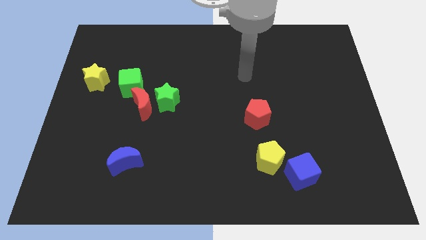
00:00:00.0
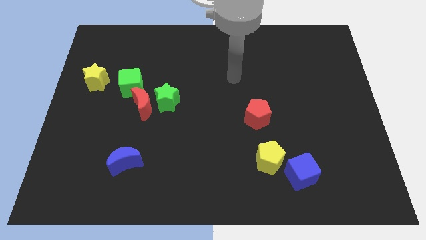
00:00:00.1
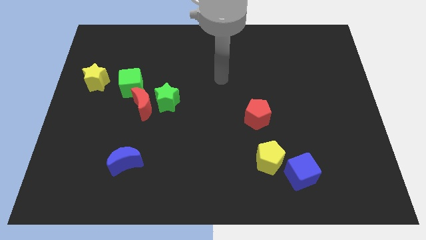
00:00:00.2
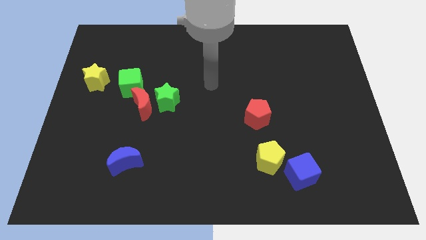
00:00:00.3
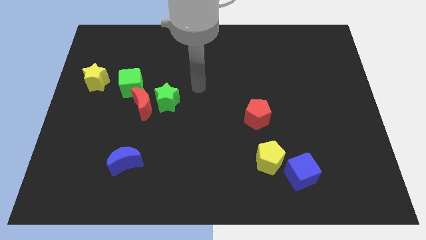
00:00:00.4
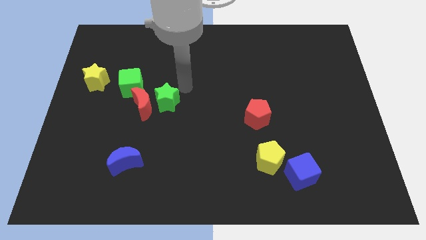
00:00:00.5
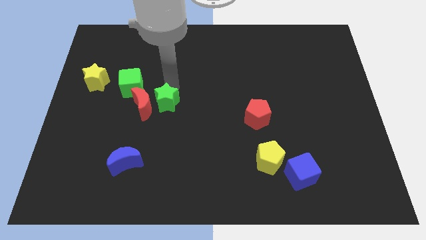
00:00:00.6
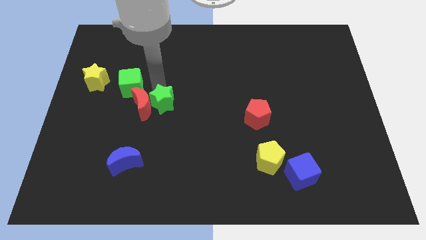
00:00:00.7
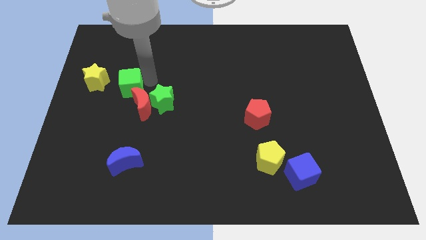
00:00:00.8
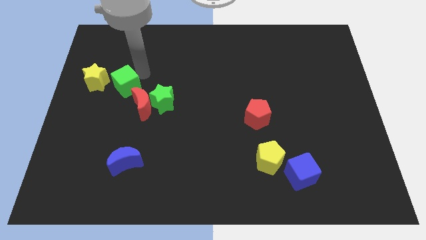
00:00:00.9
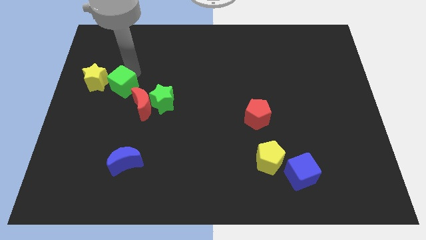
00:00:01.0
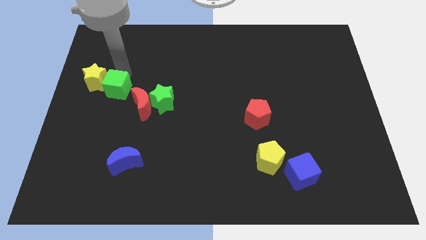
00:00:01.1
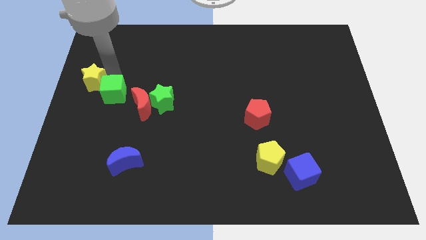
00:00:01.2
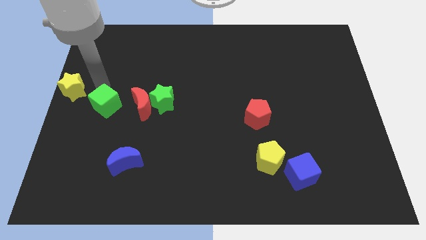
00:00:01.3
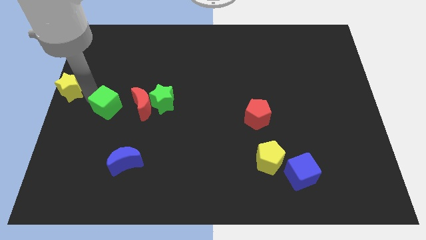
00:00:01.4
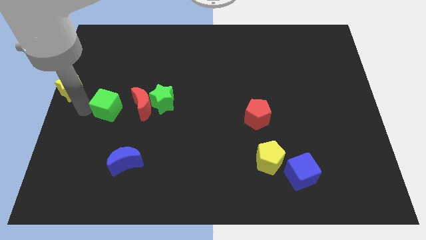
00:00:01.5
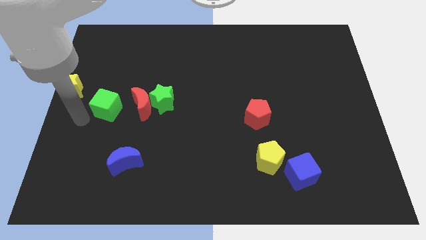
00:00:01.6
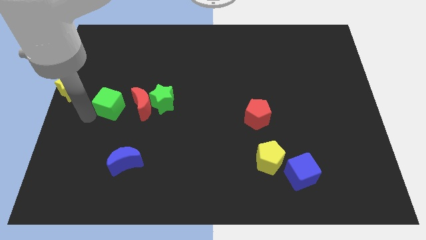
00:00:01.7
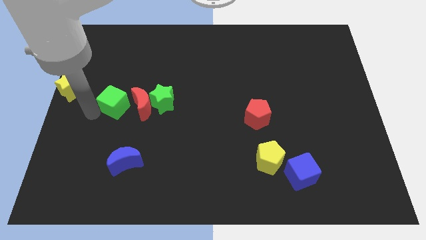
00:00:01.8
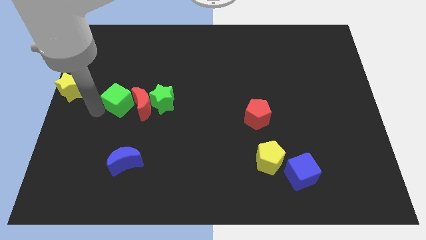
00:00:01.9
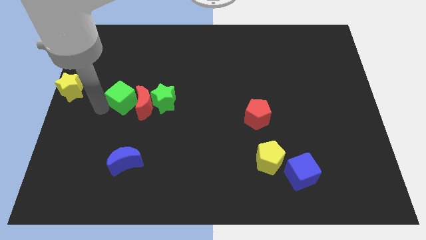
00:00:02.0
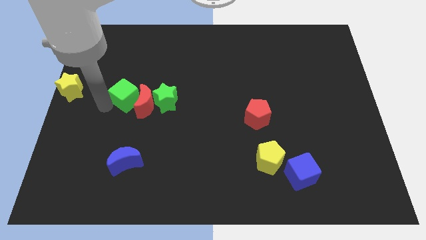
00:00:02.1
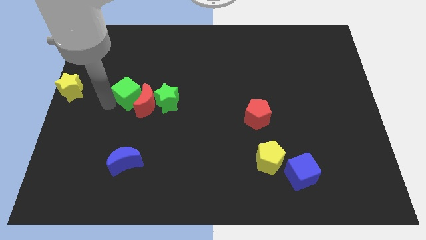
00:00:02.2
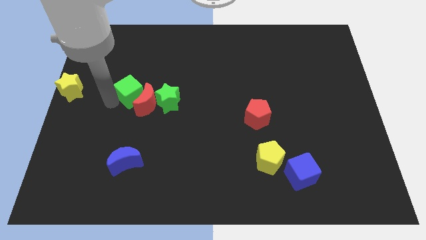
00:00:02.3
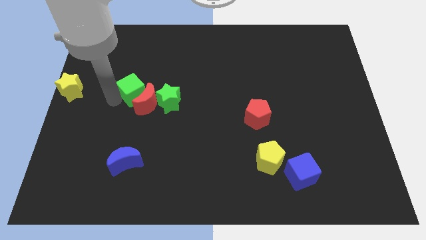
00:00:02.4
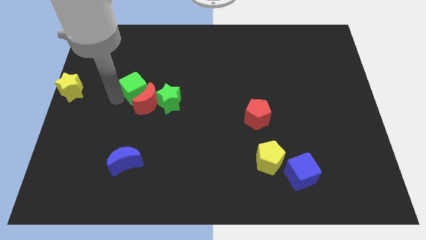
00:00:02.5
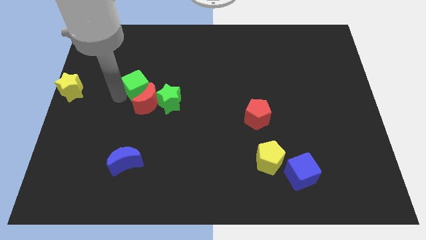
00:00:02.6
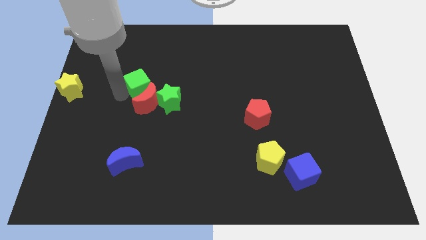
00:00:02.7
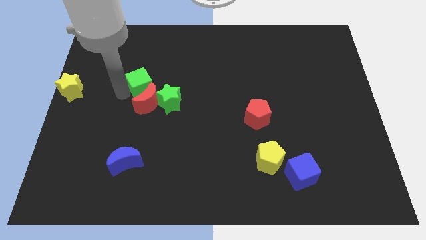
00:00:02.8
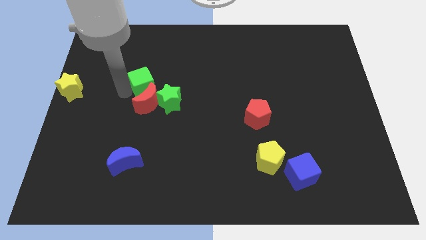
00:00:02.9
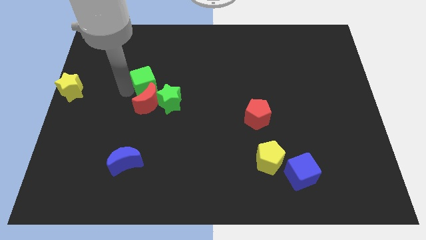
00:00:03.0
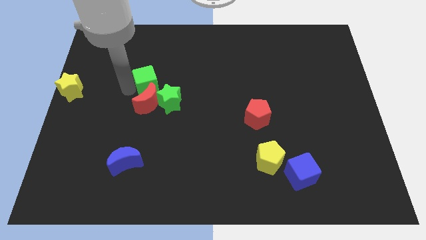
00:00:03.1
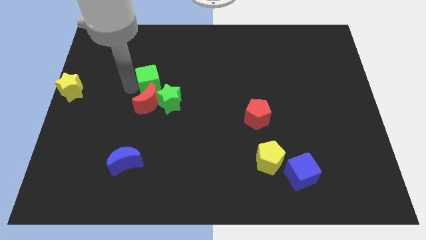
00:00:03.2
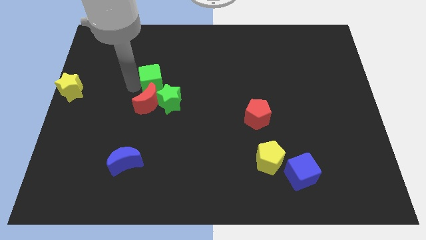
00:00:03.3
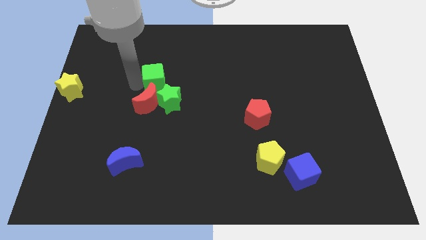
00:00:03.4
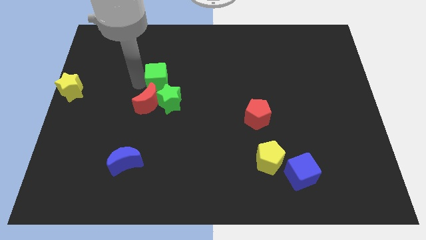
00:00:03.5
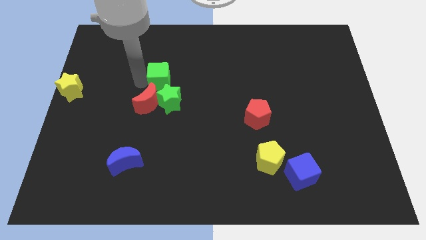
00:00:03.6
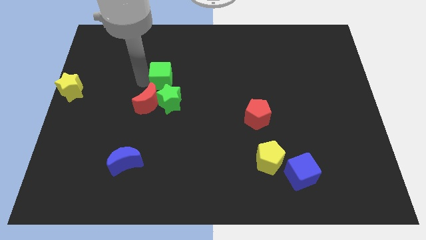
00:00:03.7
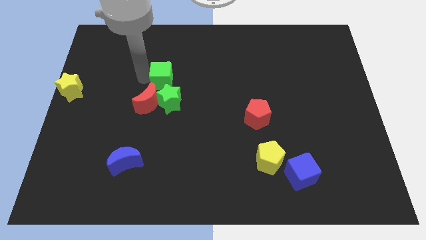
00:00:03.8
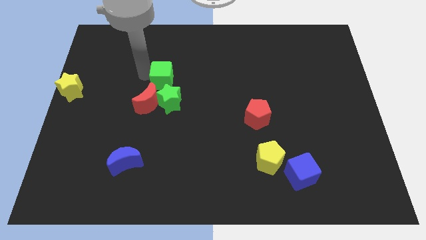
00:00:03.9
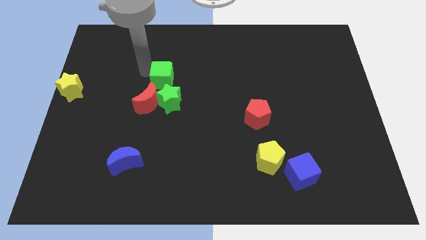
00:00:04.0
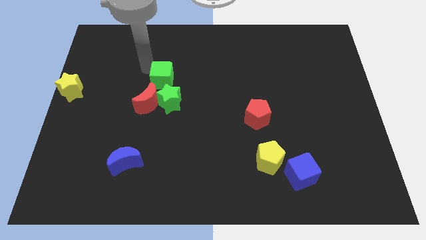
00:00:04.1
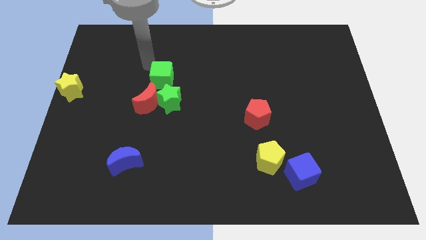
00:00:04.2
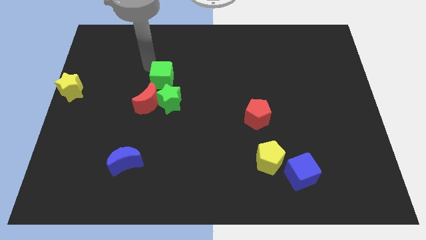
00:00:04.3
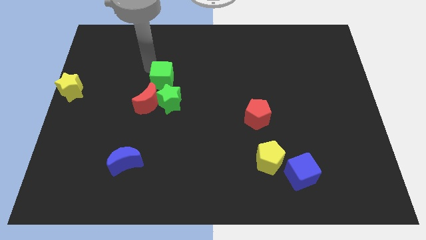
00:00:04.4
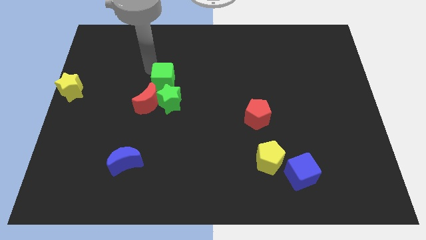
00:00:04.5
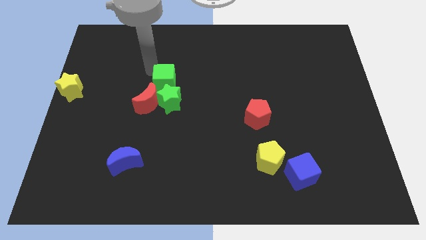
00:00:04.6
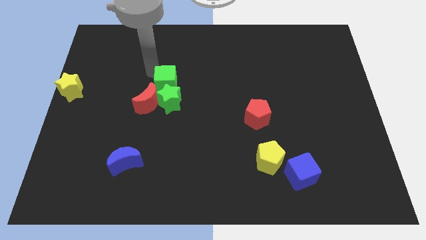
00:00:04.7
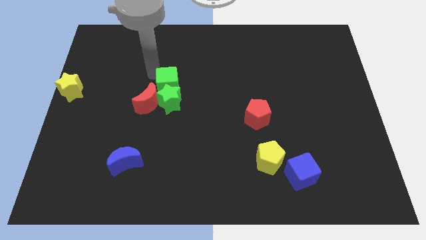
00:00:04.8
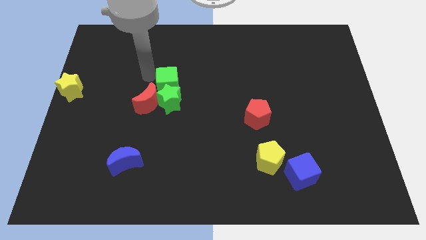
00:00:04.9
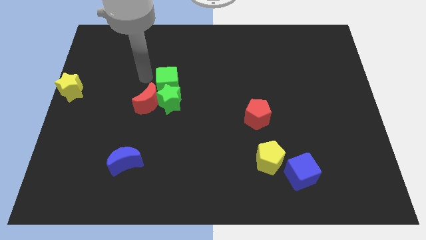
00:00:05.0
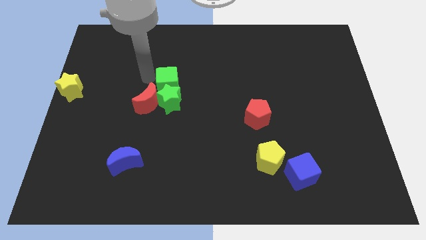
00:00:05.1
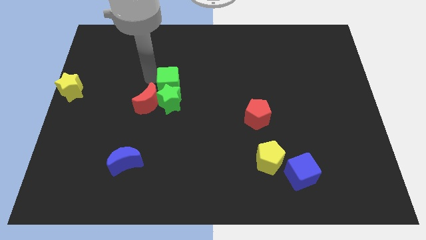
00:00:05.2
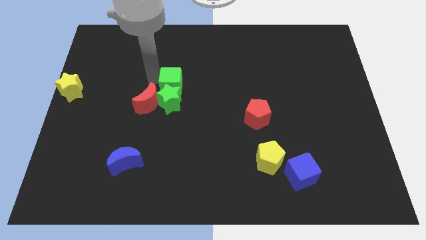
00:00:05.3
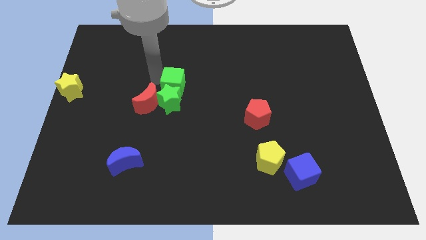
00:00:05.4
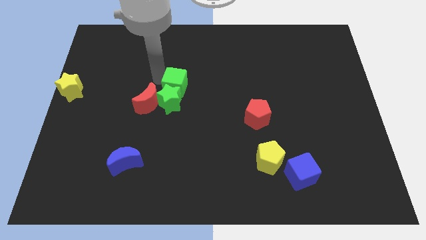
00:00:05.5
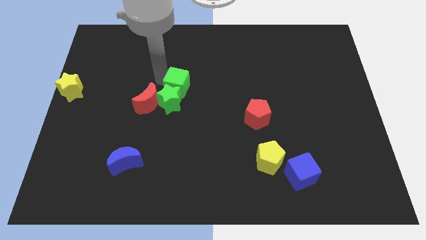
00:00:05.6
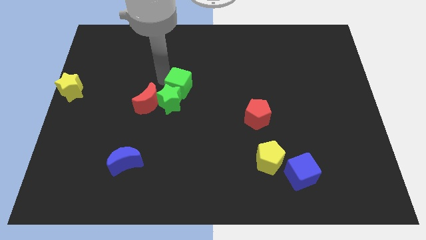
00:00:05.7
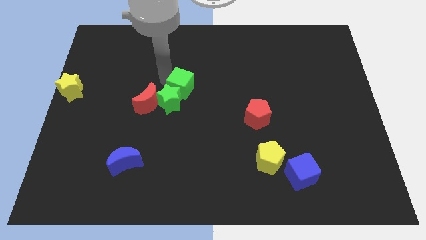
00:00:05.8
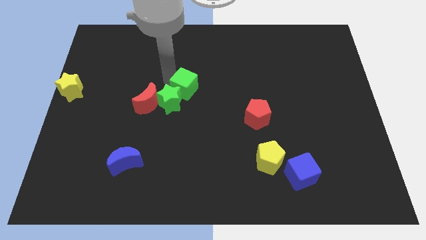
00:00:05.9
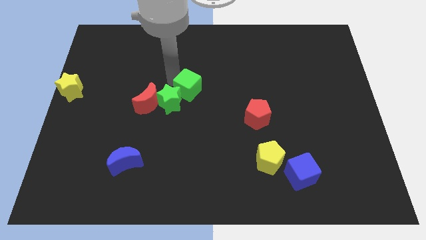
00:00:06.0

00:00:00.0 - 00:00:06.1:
move the green cube just right of the green star
